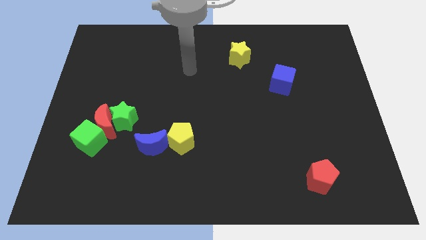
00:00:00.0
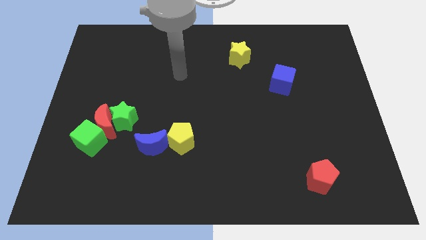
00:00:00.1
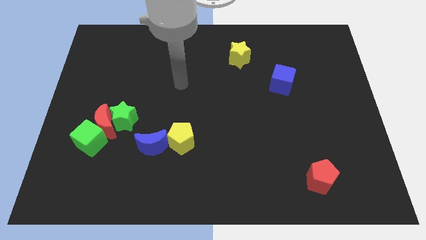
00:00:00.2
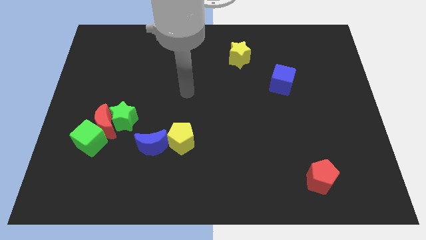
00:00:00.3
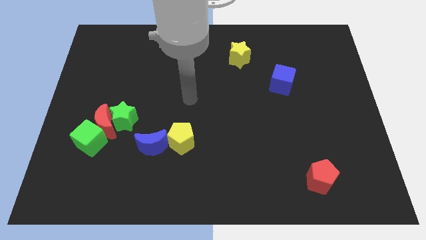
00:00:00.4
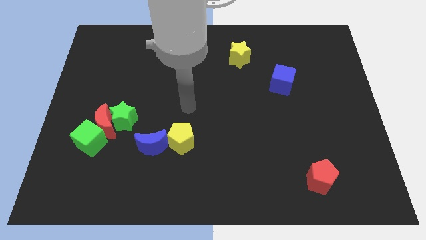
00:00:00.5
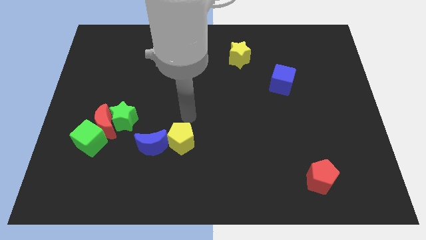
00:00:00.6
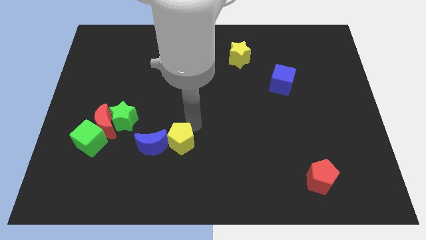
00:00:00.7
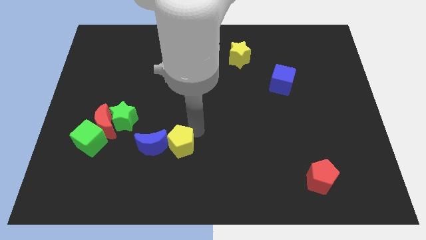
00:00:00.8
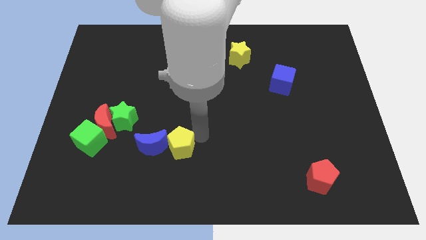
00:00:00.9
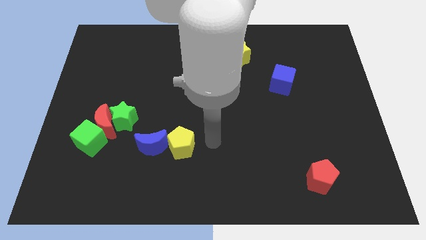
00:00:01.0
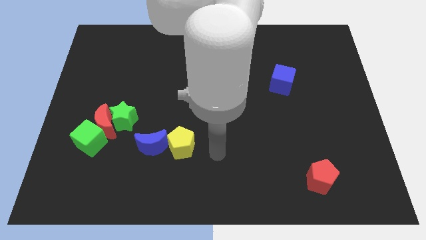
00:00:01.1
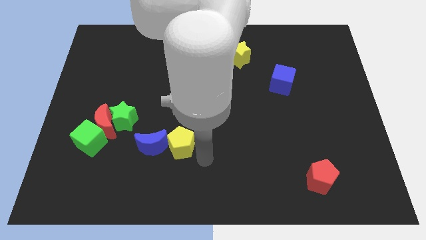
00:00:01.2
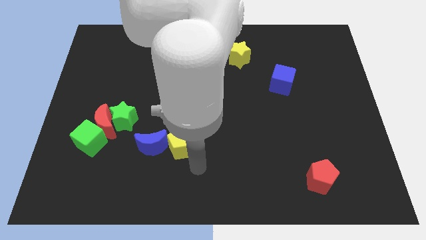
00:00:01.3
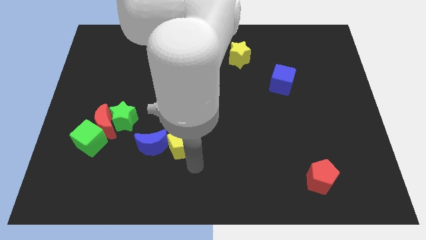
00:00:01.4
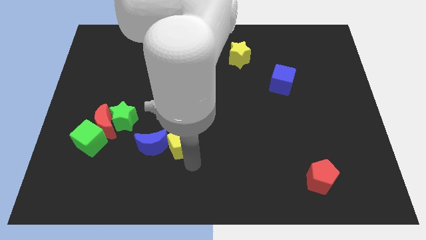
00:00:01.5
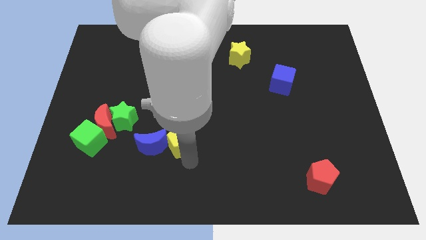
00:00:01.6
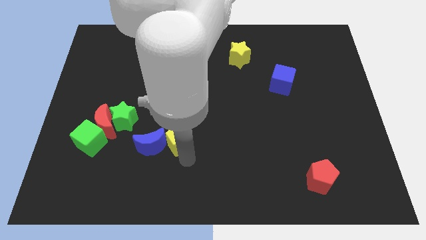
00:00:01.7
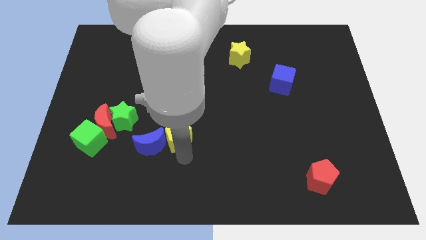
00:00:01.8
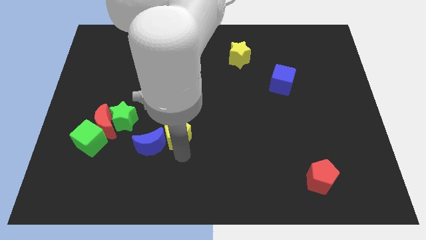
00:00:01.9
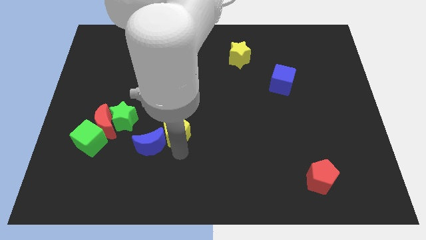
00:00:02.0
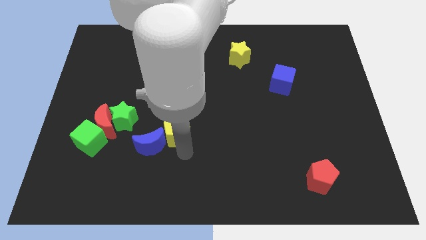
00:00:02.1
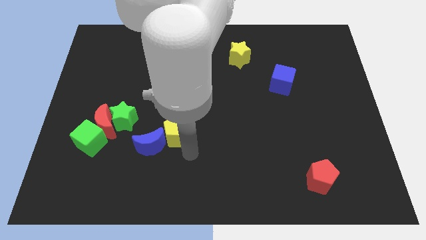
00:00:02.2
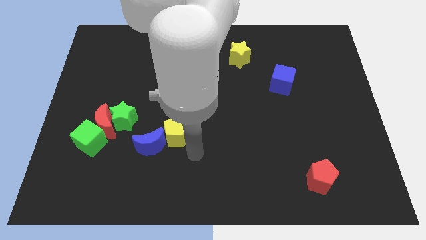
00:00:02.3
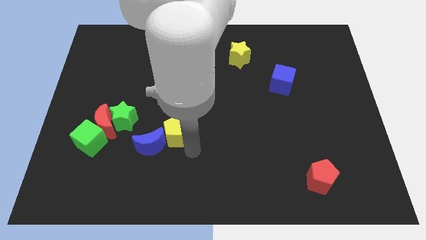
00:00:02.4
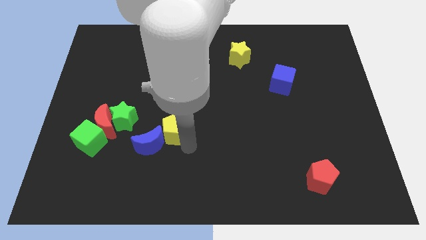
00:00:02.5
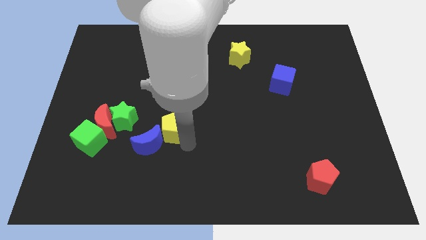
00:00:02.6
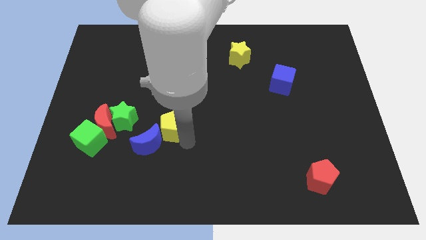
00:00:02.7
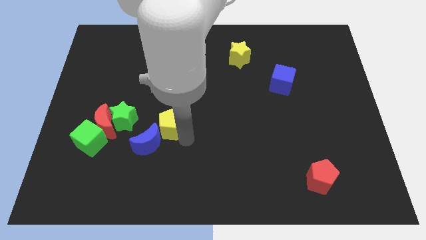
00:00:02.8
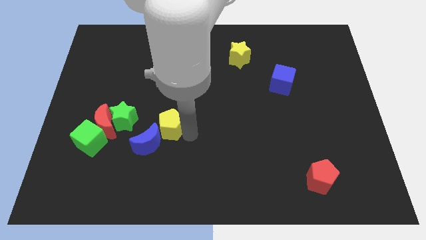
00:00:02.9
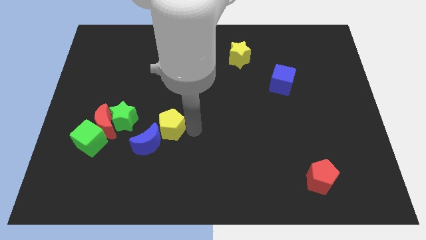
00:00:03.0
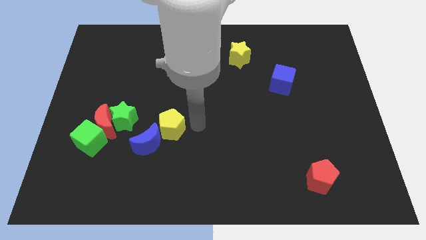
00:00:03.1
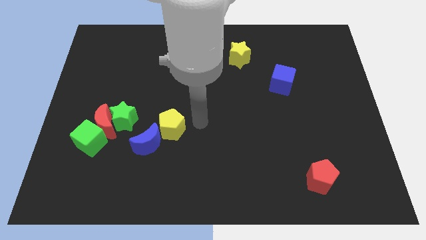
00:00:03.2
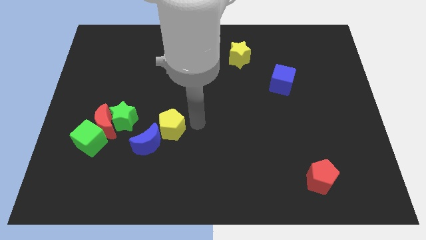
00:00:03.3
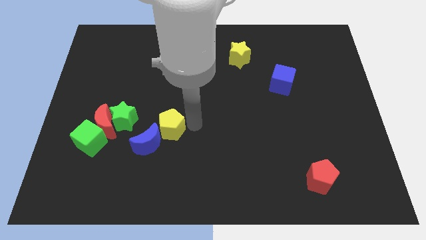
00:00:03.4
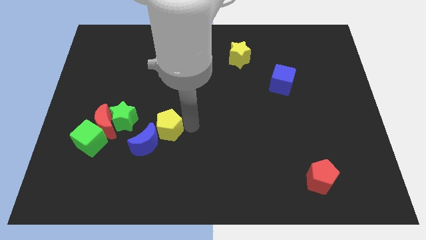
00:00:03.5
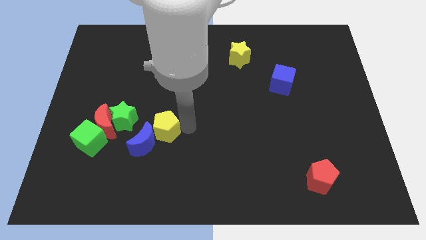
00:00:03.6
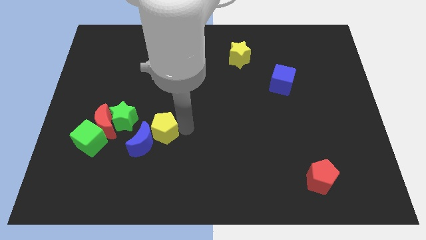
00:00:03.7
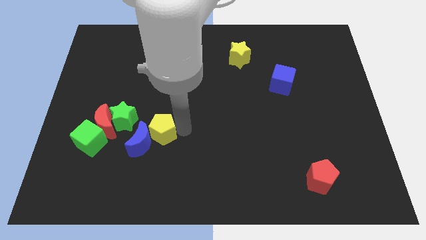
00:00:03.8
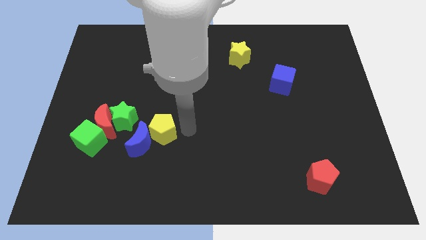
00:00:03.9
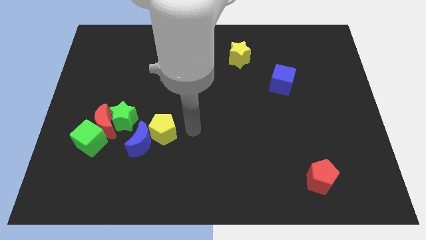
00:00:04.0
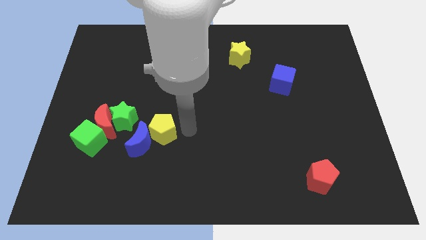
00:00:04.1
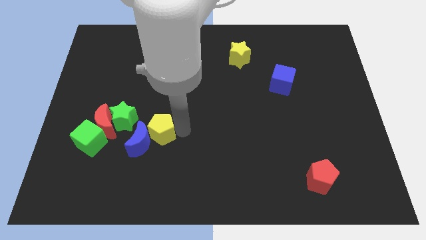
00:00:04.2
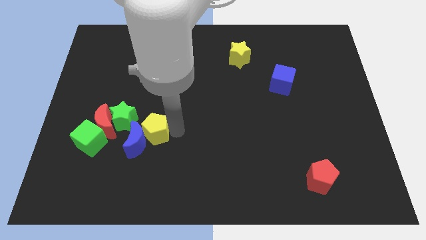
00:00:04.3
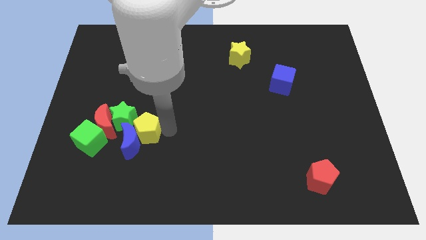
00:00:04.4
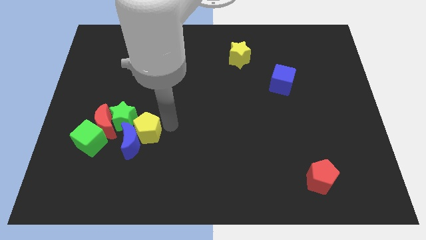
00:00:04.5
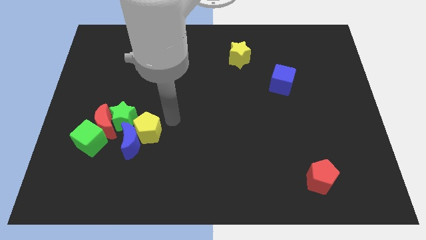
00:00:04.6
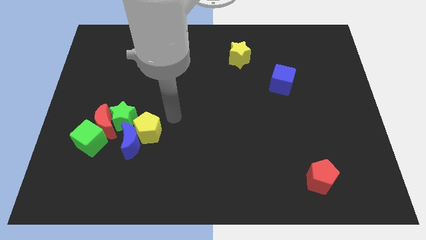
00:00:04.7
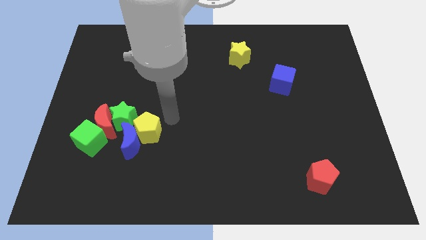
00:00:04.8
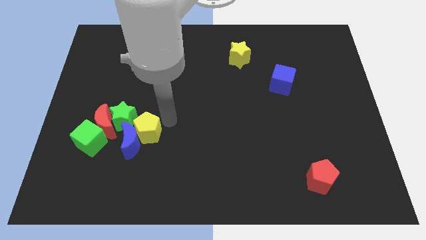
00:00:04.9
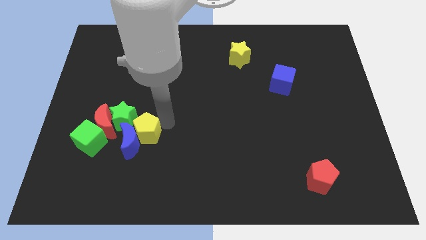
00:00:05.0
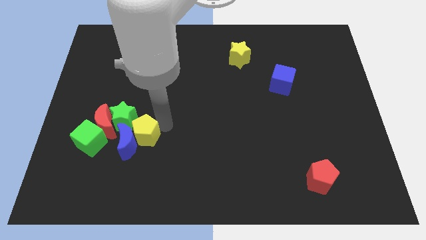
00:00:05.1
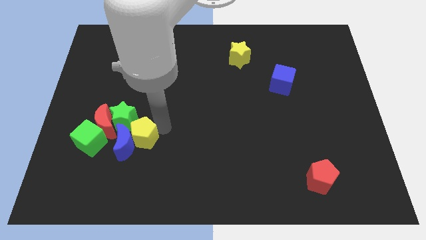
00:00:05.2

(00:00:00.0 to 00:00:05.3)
slide the yellow pentagon diagonally down and to the right of the red moon

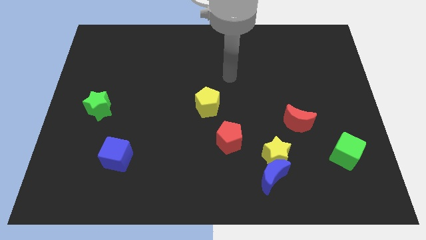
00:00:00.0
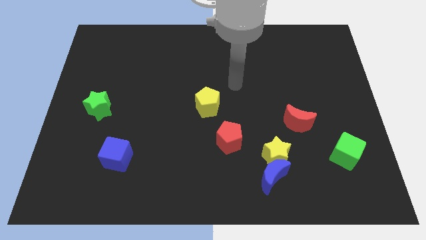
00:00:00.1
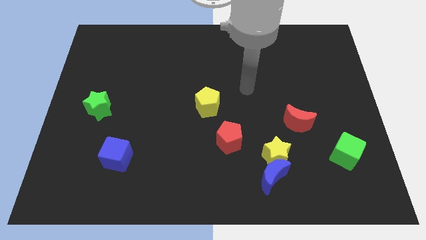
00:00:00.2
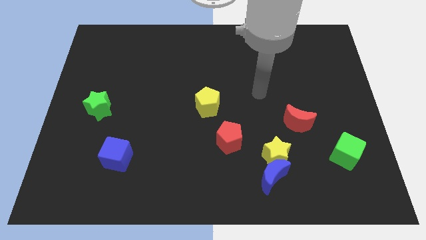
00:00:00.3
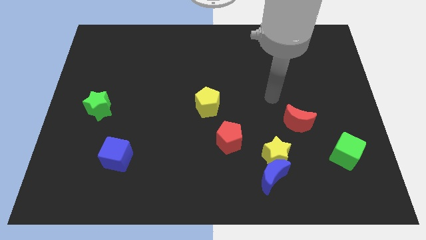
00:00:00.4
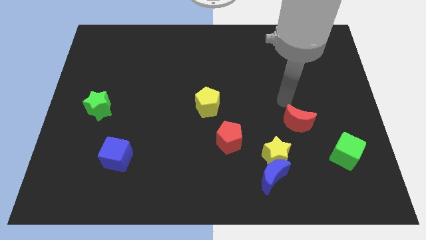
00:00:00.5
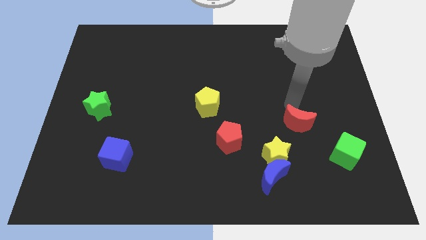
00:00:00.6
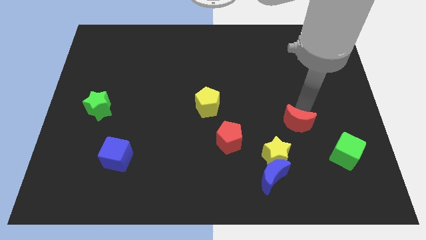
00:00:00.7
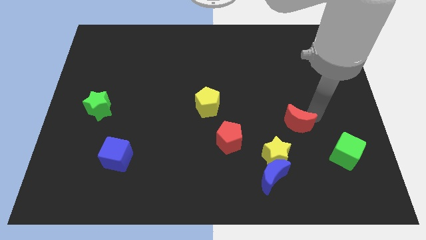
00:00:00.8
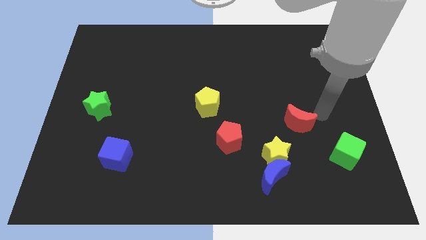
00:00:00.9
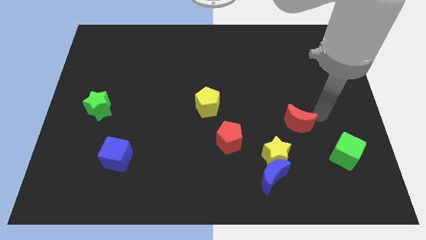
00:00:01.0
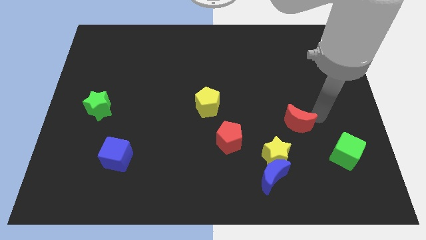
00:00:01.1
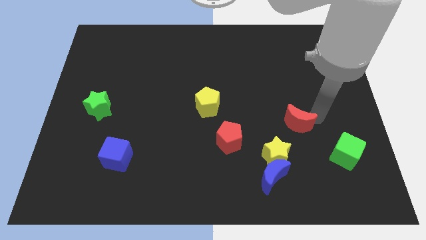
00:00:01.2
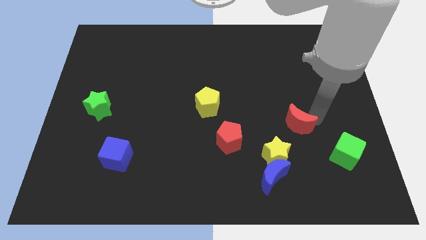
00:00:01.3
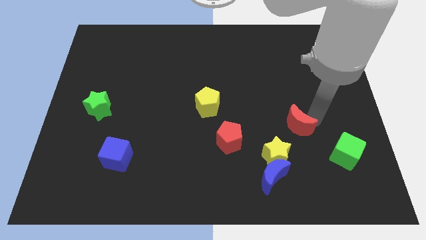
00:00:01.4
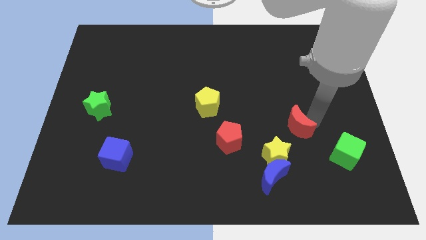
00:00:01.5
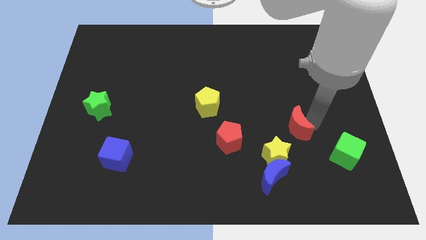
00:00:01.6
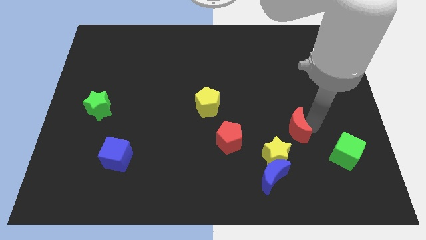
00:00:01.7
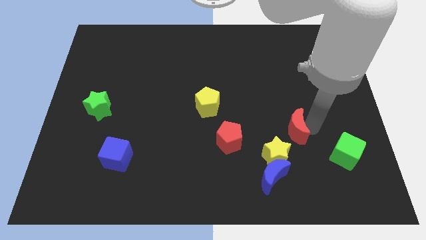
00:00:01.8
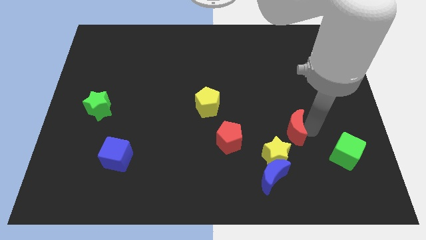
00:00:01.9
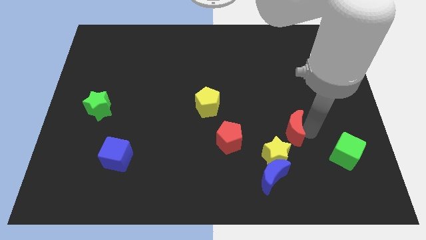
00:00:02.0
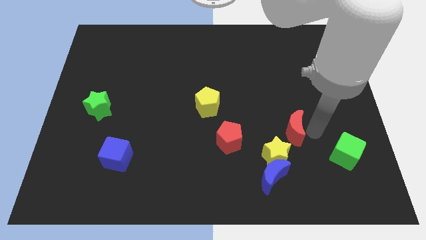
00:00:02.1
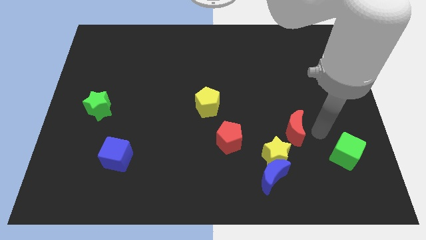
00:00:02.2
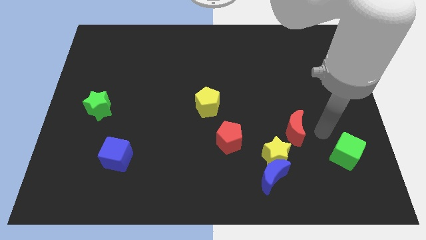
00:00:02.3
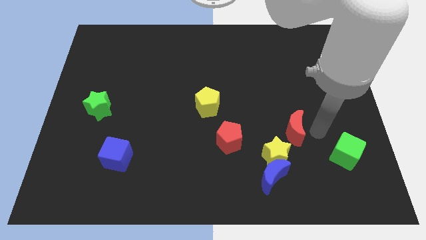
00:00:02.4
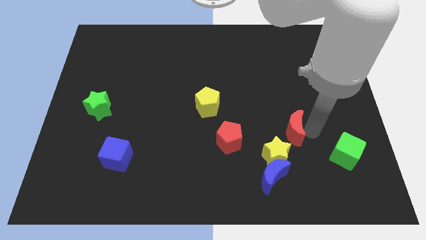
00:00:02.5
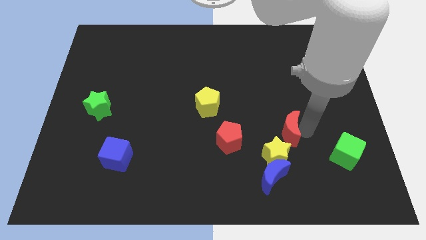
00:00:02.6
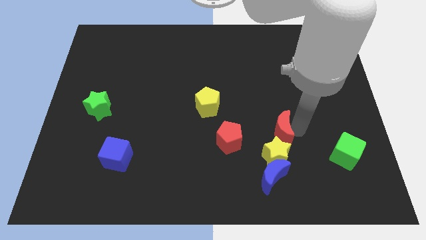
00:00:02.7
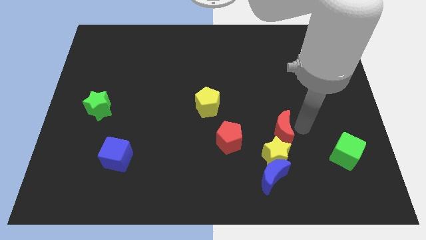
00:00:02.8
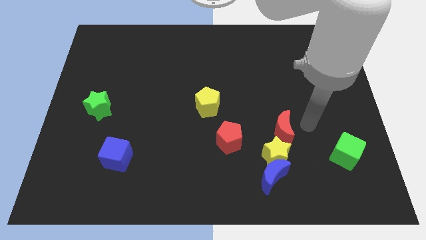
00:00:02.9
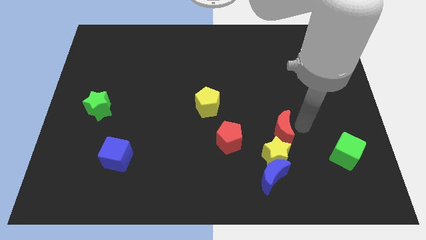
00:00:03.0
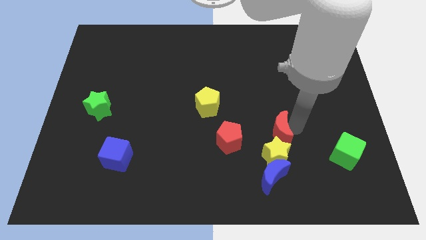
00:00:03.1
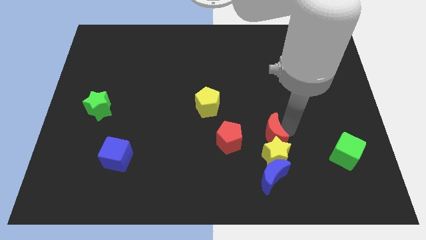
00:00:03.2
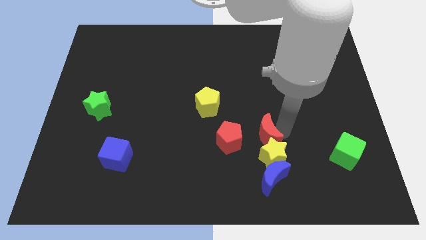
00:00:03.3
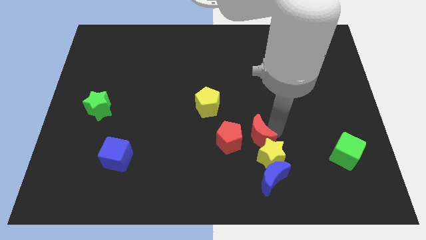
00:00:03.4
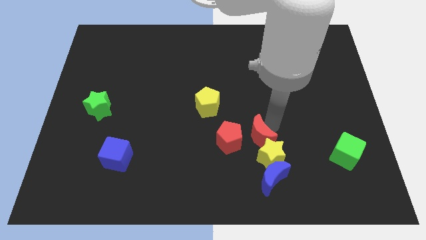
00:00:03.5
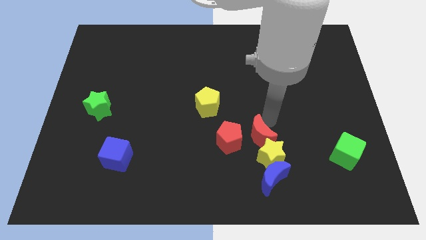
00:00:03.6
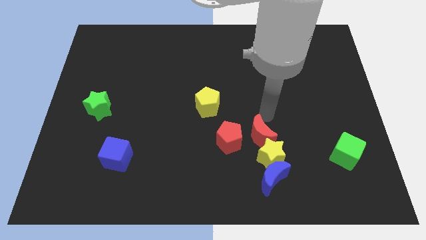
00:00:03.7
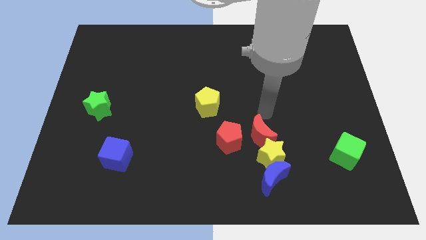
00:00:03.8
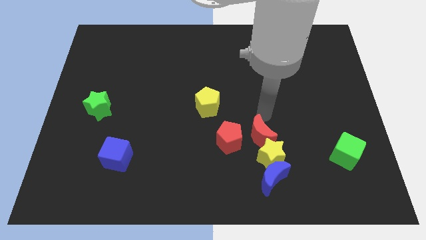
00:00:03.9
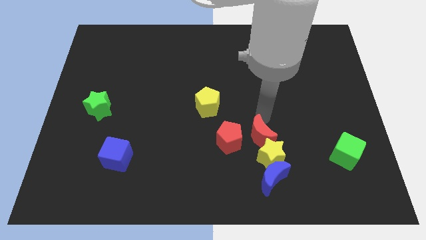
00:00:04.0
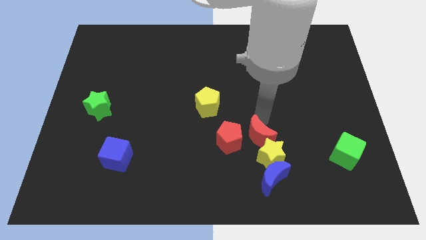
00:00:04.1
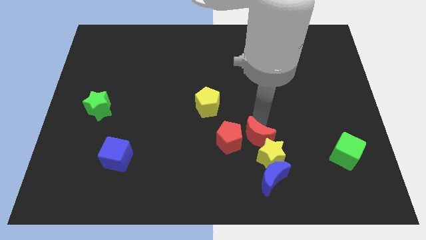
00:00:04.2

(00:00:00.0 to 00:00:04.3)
push the red moon diagonally down and to the right of the red pentagon
